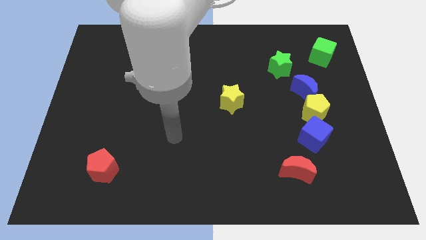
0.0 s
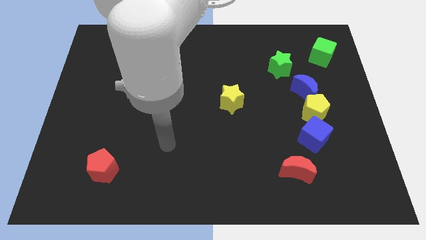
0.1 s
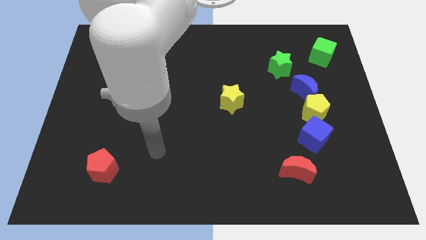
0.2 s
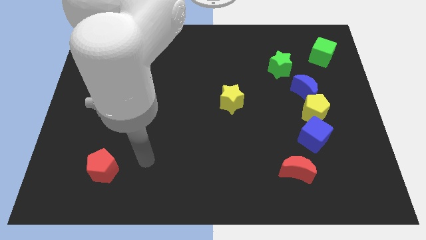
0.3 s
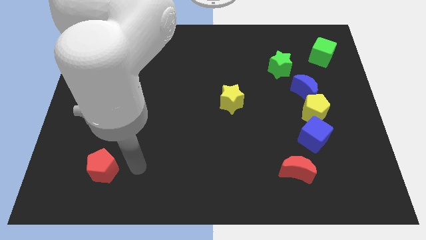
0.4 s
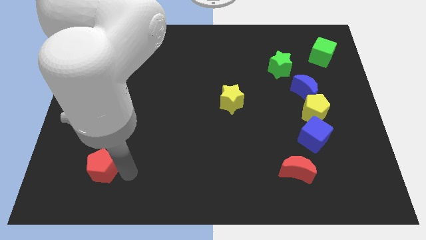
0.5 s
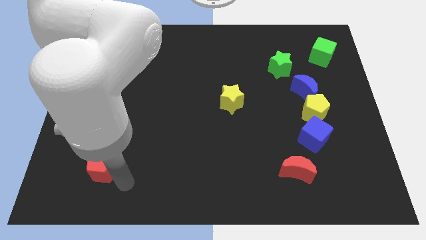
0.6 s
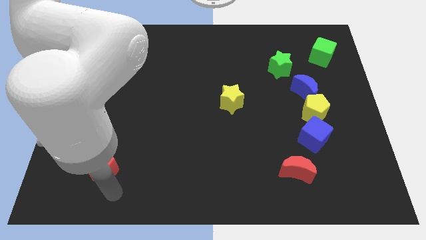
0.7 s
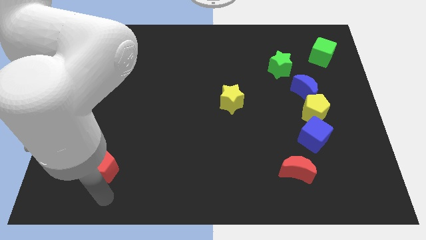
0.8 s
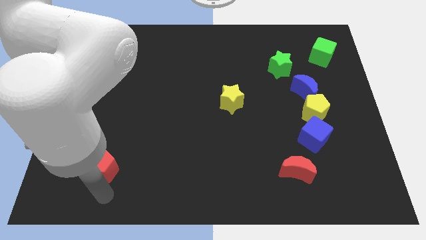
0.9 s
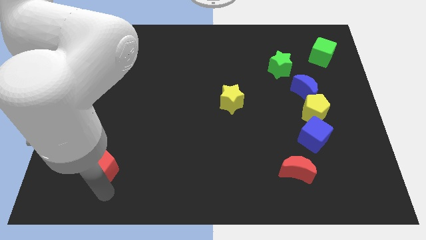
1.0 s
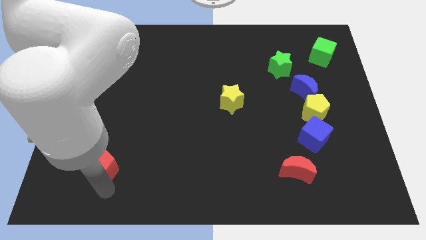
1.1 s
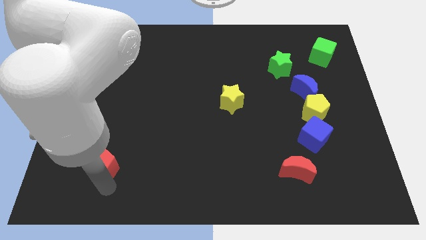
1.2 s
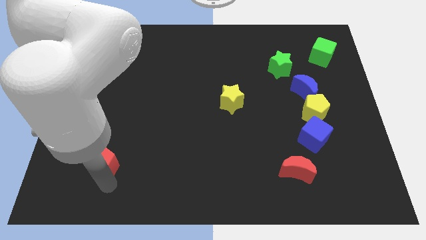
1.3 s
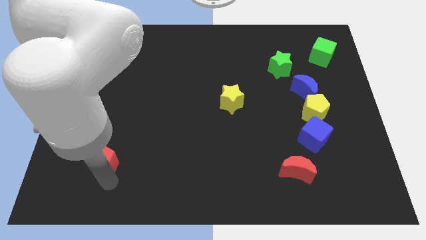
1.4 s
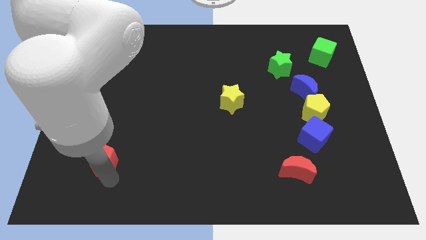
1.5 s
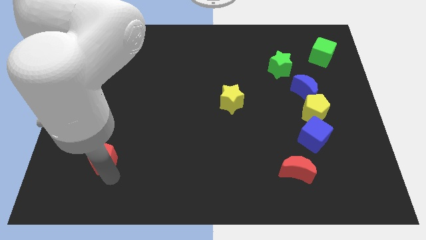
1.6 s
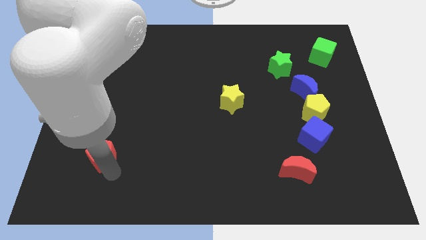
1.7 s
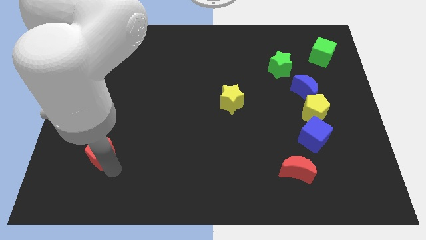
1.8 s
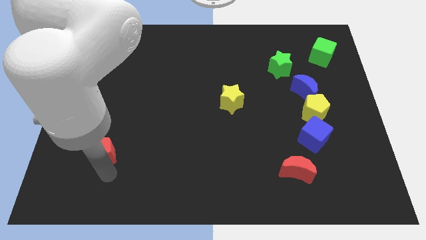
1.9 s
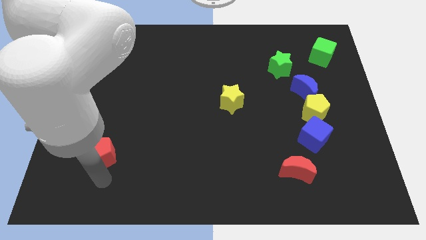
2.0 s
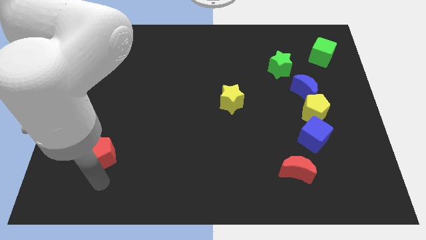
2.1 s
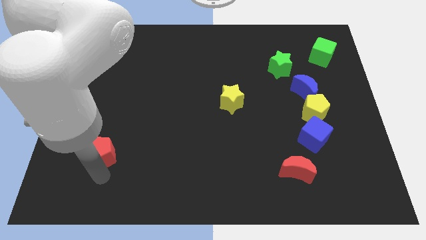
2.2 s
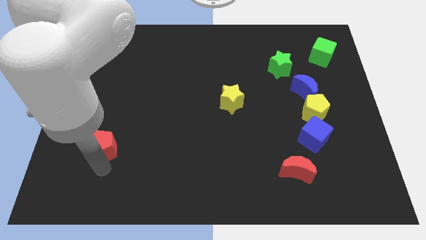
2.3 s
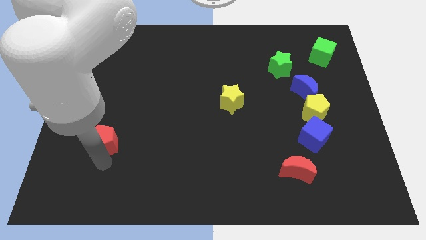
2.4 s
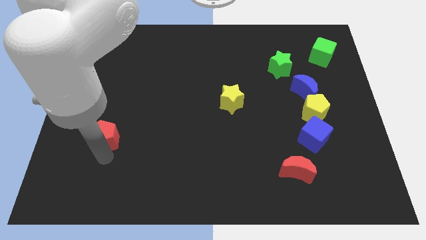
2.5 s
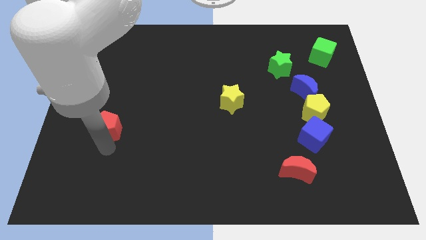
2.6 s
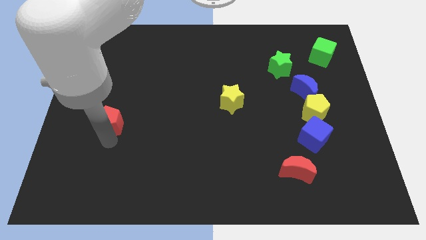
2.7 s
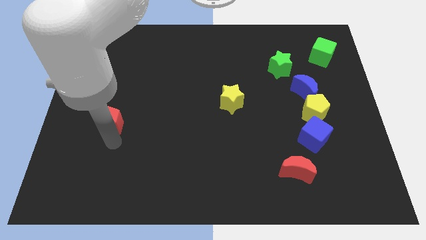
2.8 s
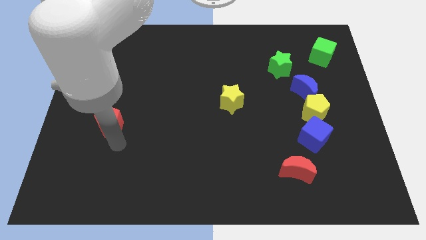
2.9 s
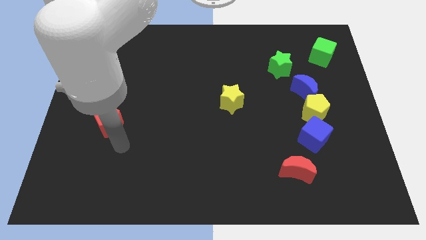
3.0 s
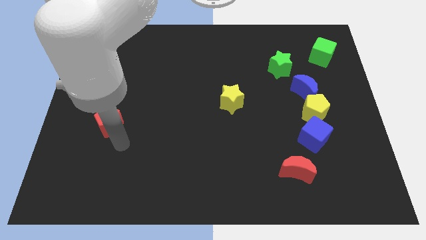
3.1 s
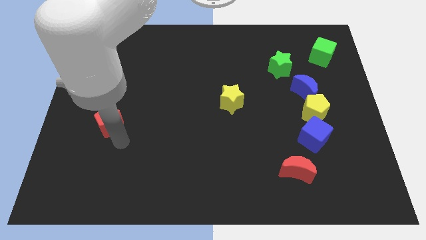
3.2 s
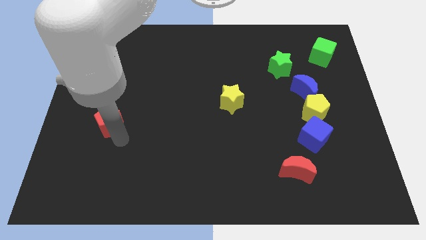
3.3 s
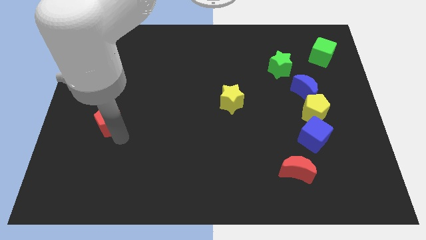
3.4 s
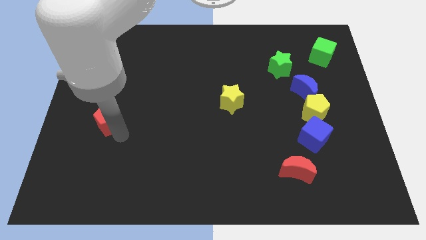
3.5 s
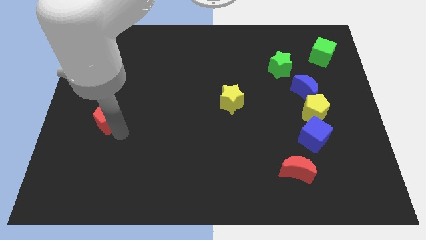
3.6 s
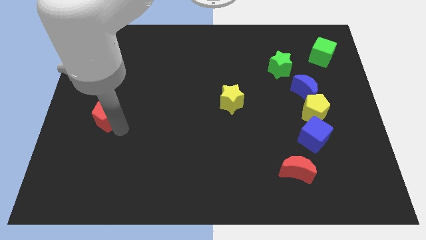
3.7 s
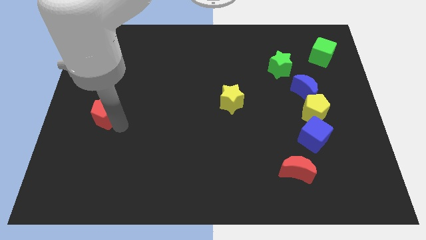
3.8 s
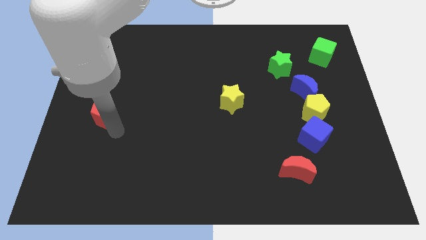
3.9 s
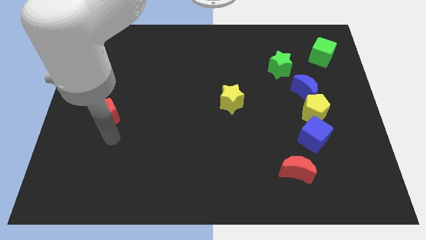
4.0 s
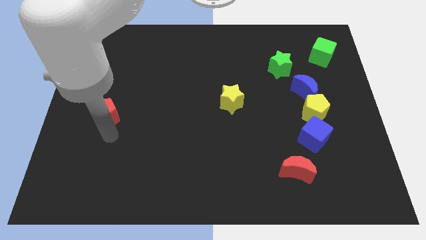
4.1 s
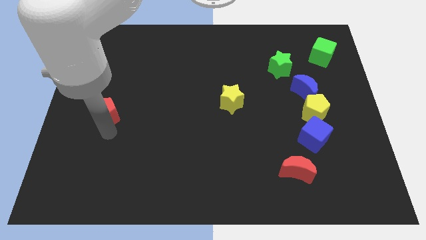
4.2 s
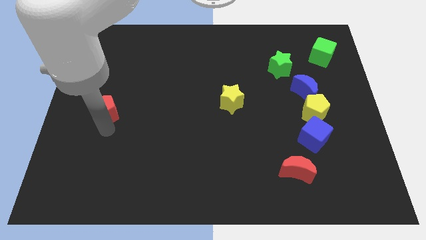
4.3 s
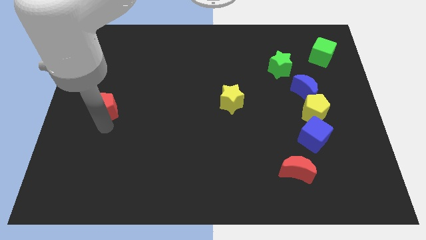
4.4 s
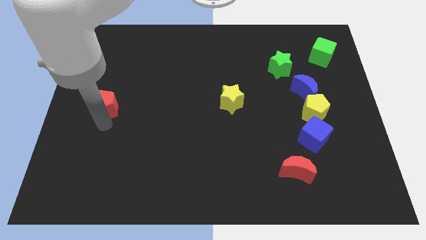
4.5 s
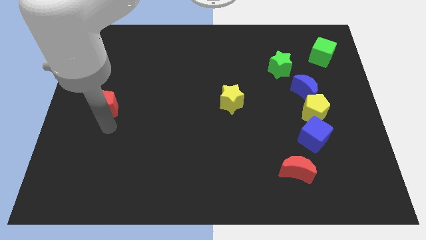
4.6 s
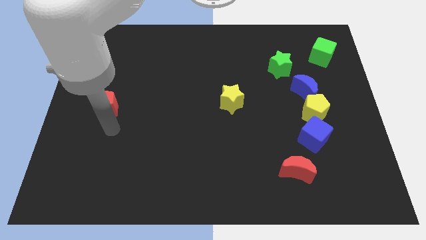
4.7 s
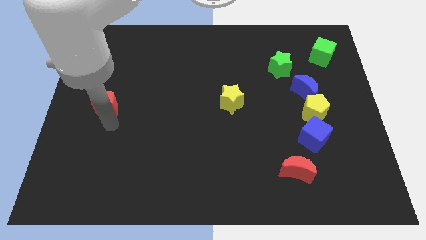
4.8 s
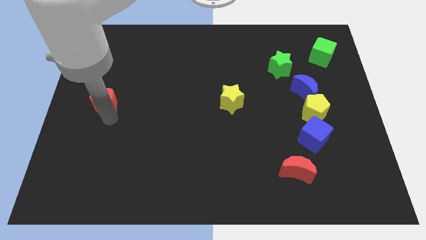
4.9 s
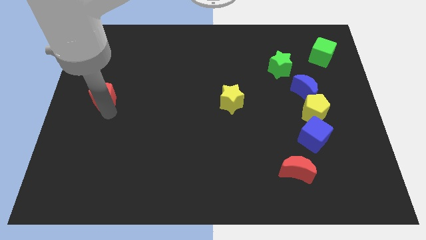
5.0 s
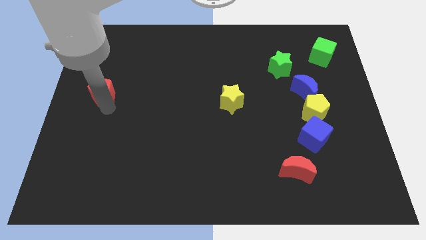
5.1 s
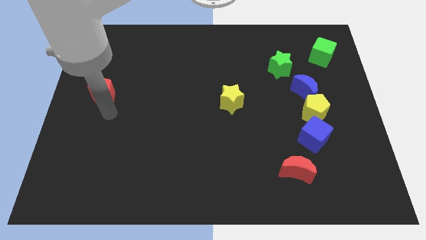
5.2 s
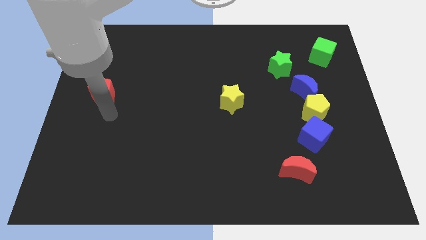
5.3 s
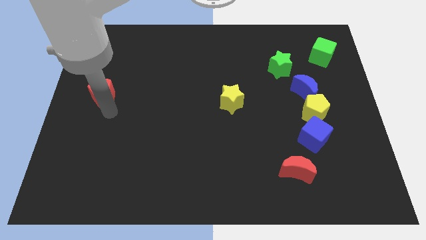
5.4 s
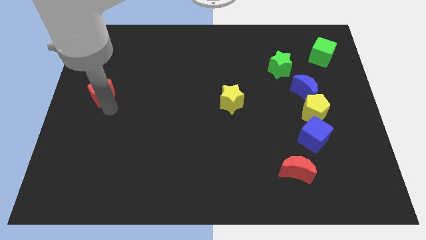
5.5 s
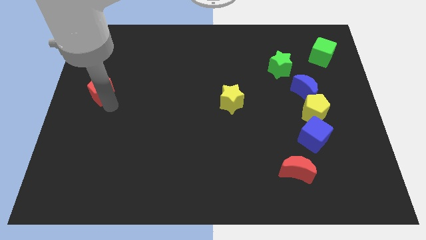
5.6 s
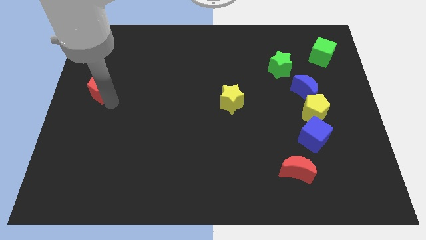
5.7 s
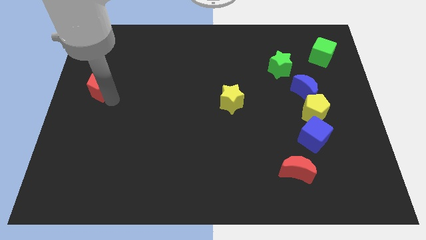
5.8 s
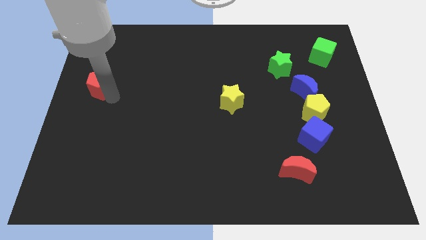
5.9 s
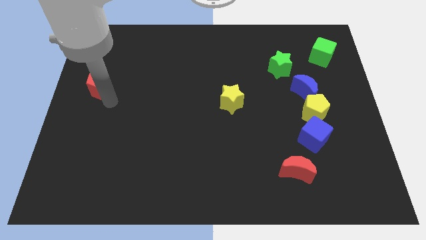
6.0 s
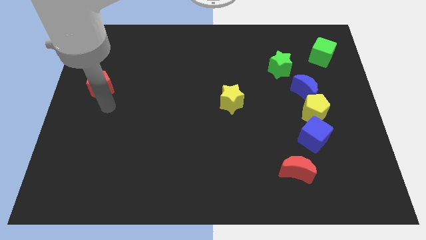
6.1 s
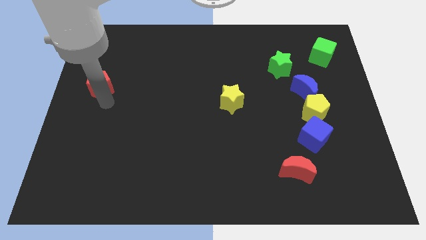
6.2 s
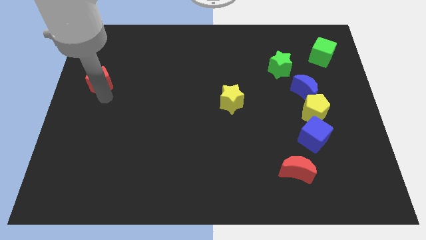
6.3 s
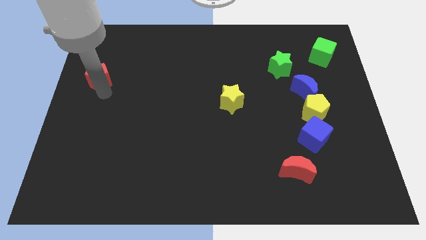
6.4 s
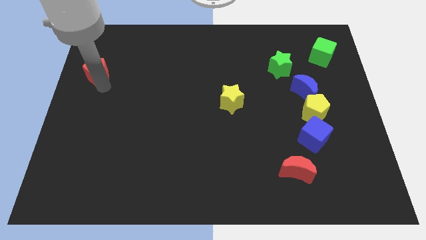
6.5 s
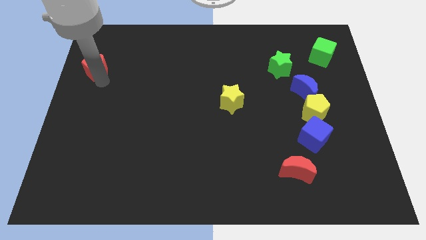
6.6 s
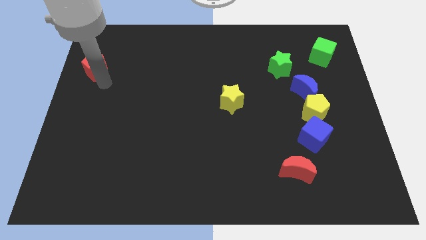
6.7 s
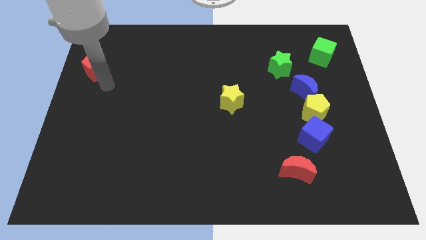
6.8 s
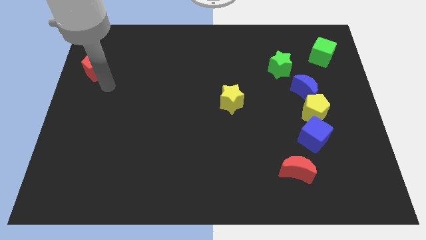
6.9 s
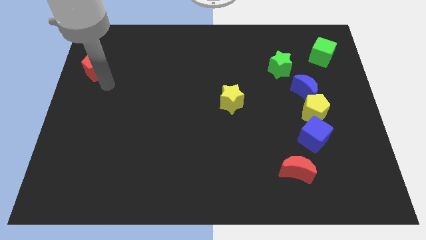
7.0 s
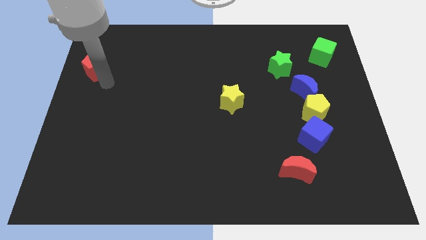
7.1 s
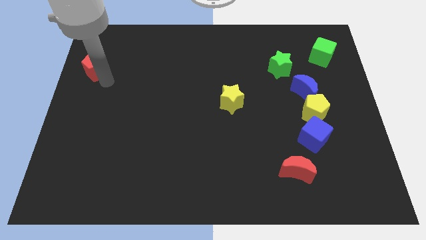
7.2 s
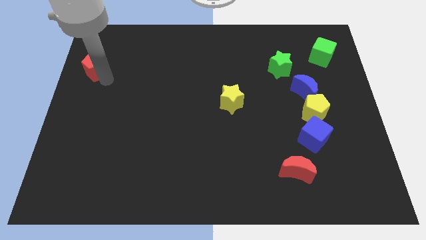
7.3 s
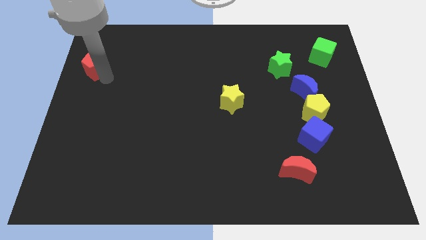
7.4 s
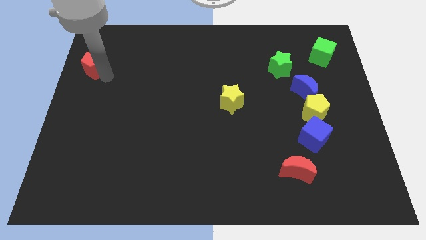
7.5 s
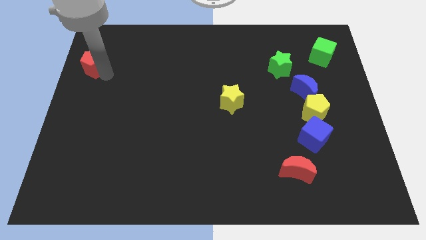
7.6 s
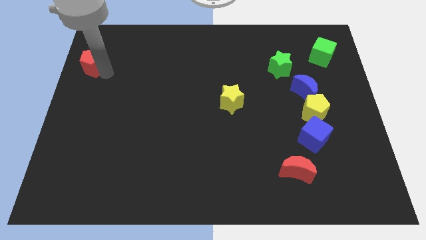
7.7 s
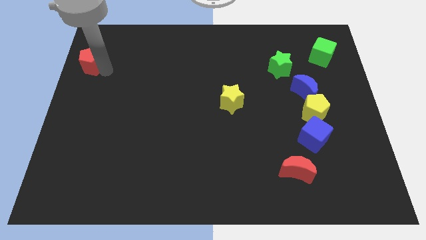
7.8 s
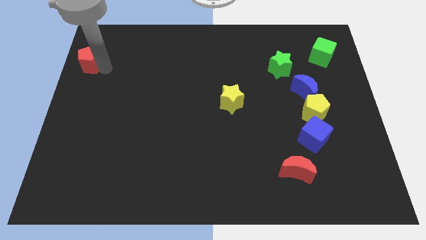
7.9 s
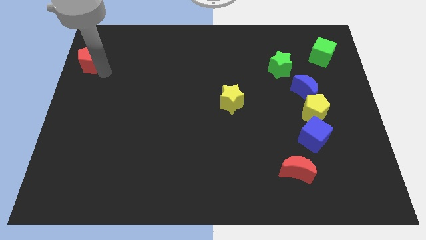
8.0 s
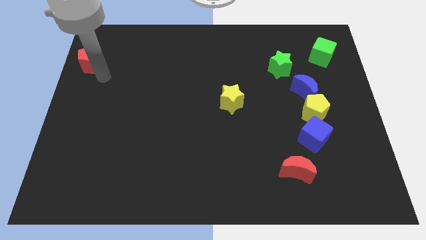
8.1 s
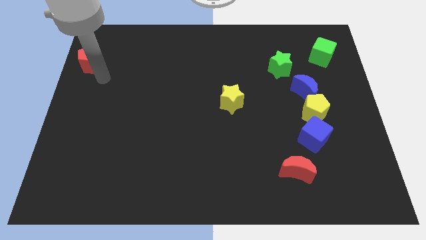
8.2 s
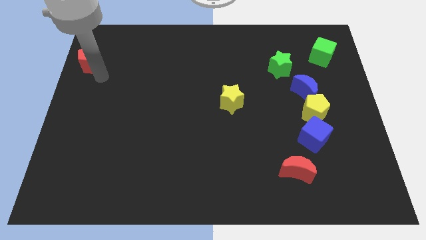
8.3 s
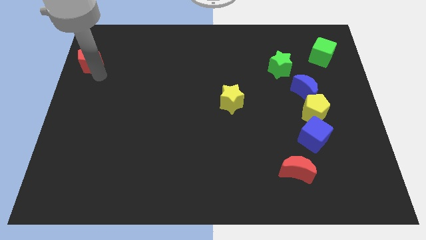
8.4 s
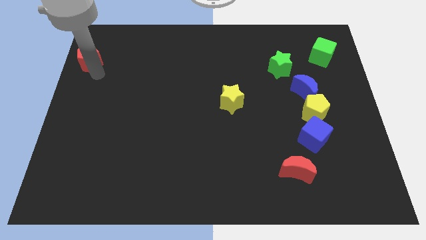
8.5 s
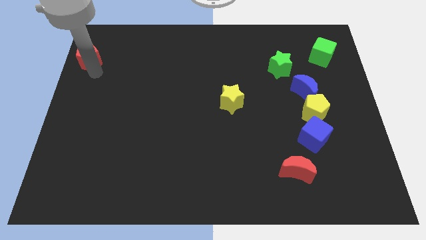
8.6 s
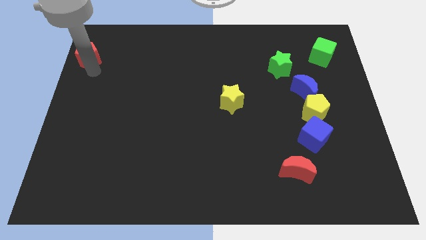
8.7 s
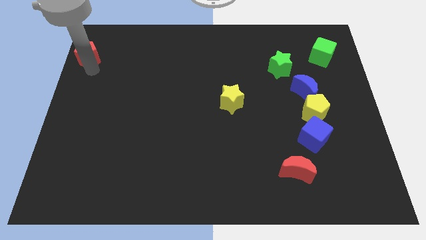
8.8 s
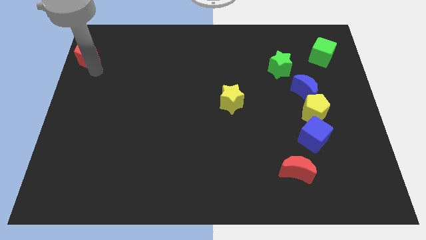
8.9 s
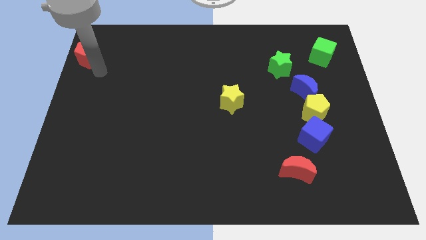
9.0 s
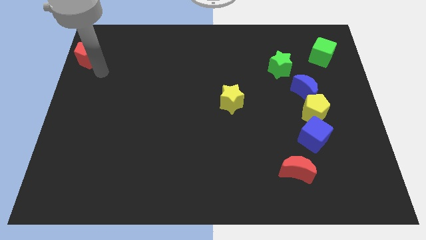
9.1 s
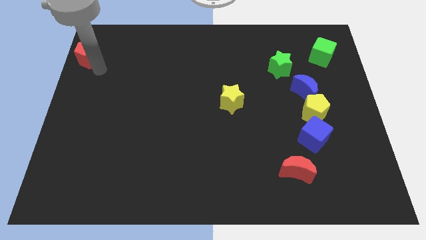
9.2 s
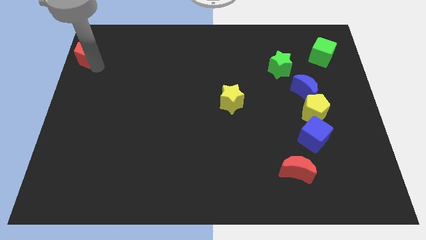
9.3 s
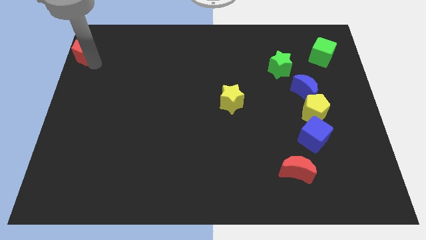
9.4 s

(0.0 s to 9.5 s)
slide the red pentagon to the upper left corner
